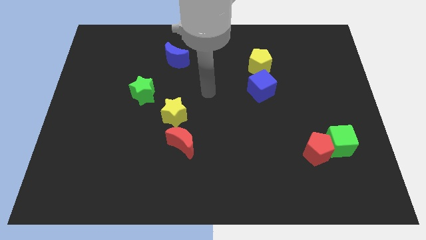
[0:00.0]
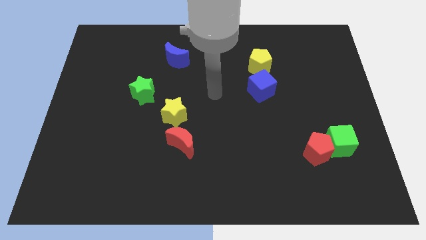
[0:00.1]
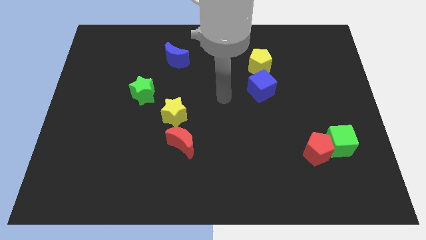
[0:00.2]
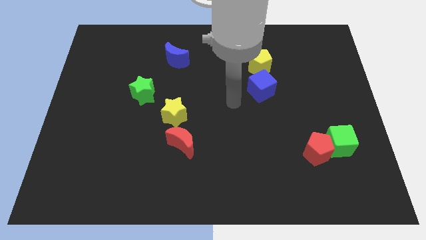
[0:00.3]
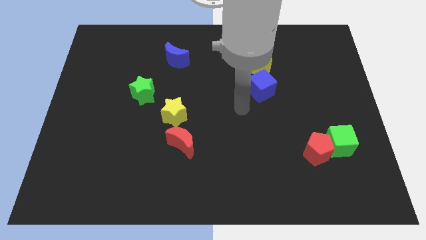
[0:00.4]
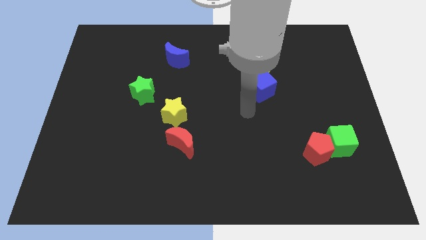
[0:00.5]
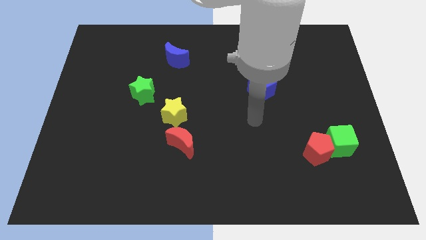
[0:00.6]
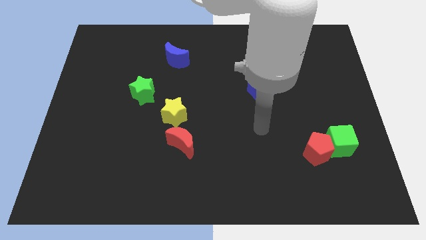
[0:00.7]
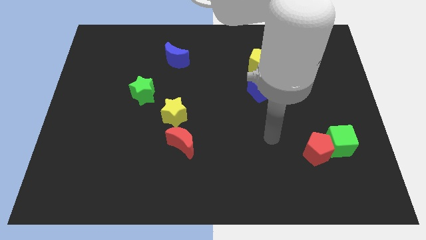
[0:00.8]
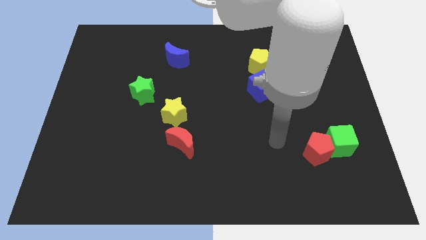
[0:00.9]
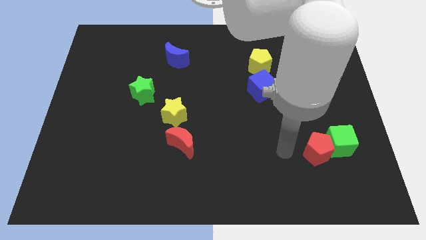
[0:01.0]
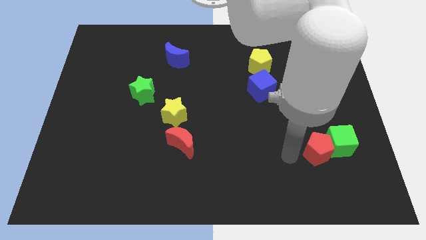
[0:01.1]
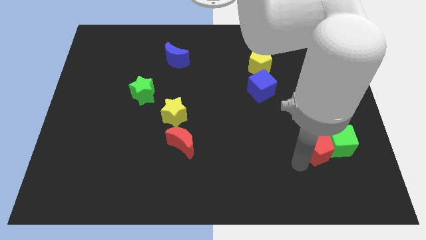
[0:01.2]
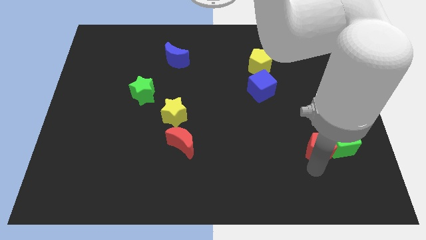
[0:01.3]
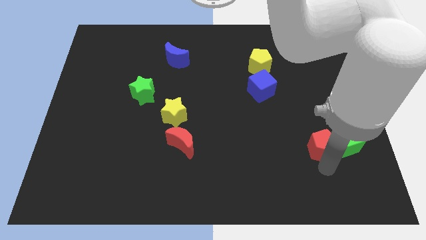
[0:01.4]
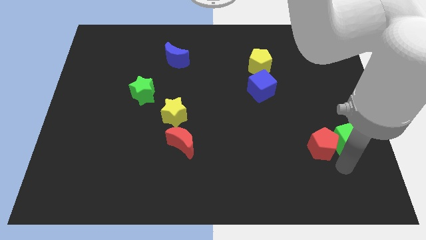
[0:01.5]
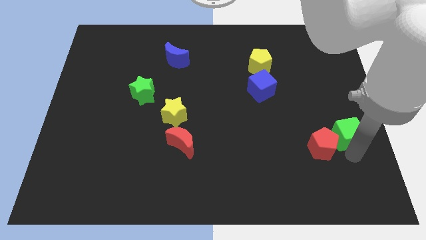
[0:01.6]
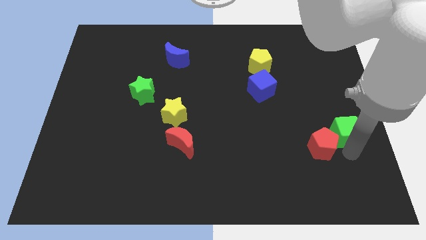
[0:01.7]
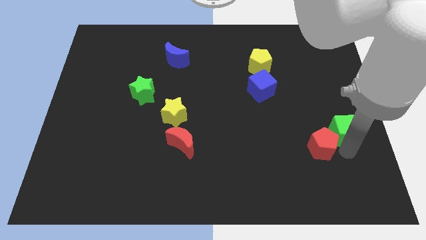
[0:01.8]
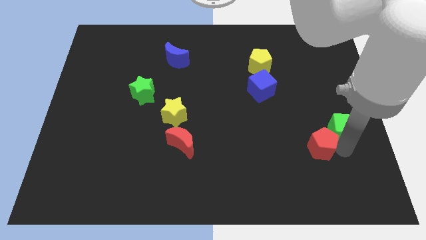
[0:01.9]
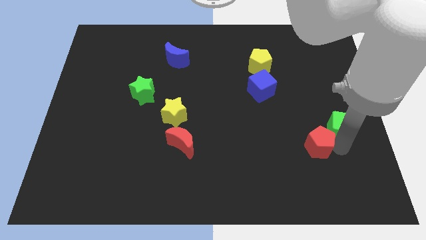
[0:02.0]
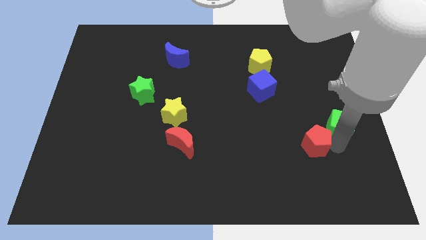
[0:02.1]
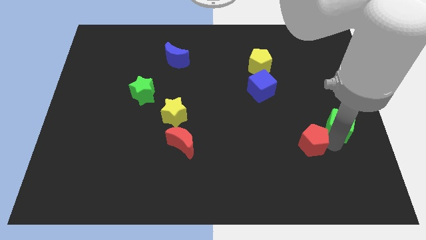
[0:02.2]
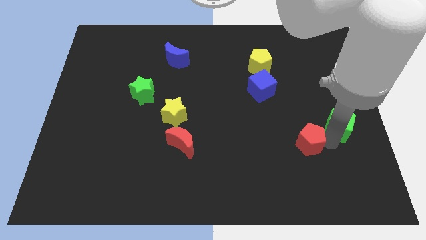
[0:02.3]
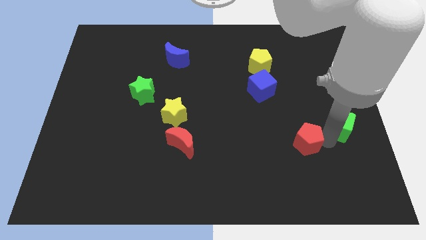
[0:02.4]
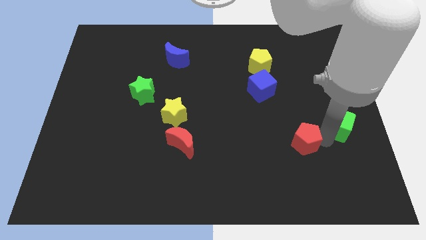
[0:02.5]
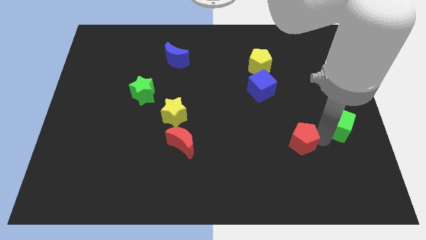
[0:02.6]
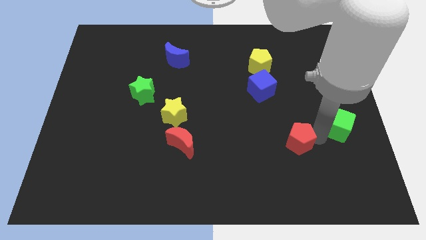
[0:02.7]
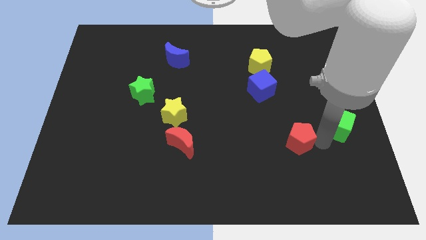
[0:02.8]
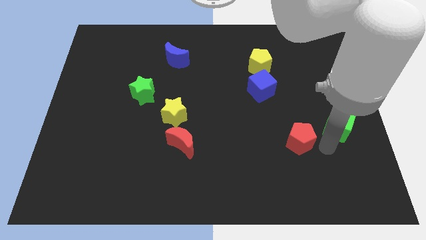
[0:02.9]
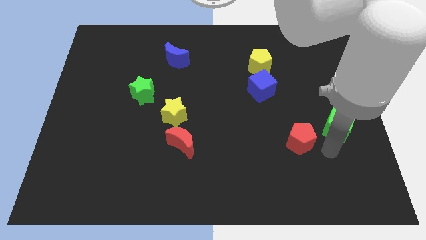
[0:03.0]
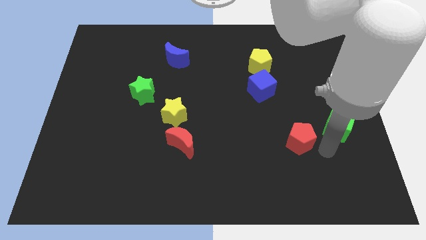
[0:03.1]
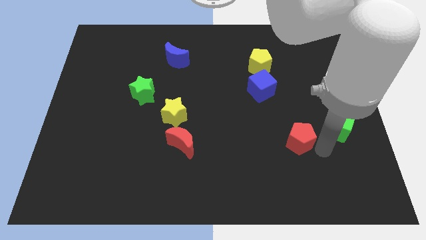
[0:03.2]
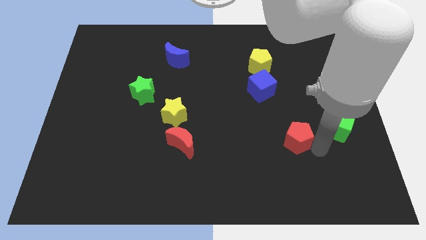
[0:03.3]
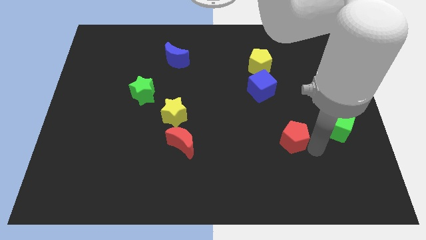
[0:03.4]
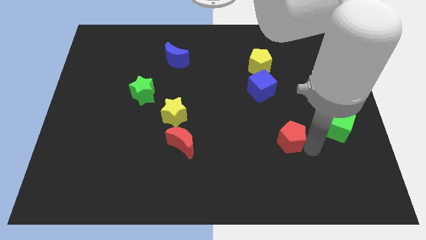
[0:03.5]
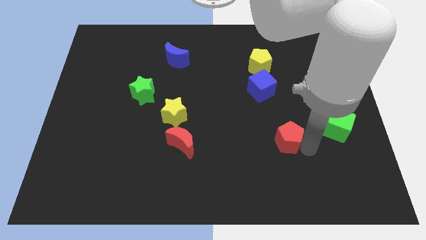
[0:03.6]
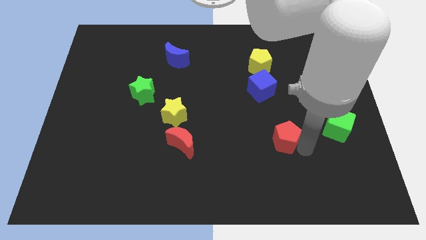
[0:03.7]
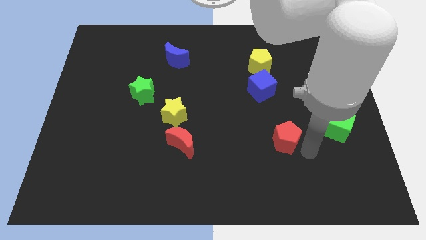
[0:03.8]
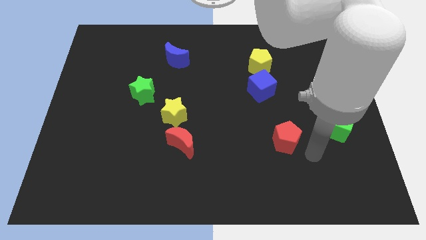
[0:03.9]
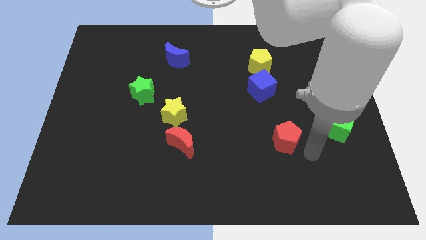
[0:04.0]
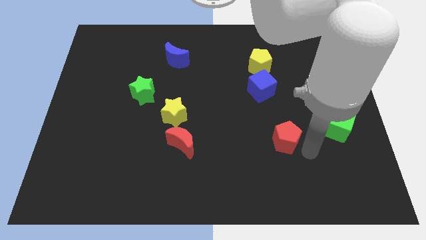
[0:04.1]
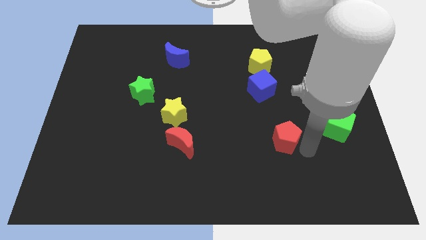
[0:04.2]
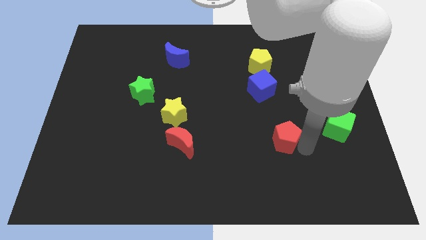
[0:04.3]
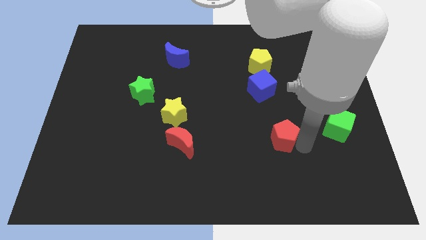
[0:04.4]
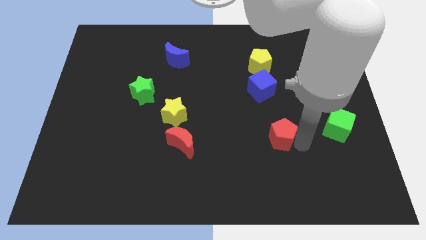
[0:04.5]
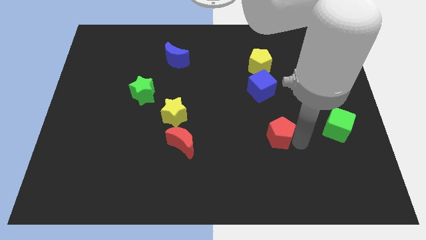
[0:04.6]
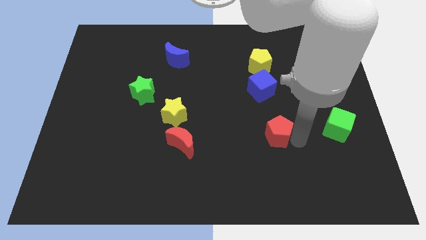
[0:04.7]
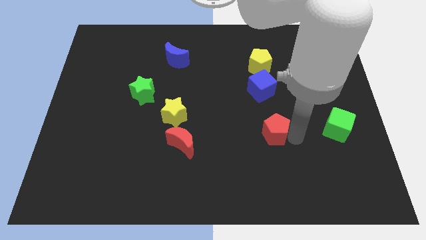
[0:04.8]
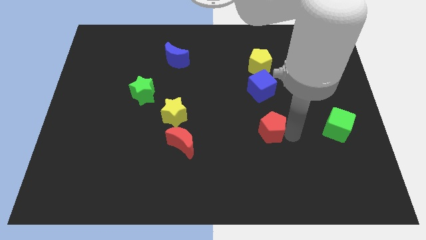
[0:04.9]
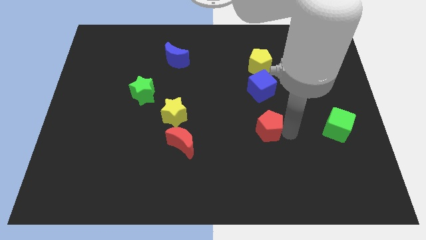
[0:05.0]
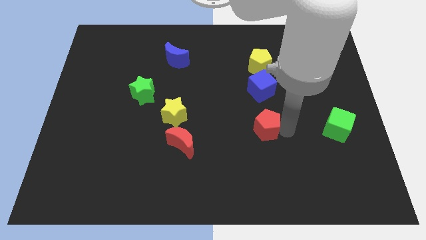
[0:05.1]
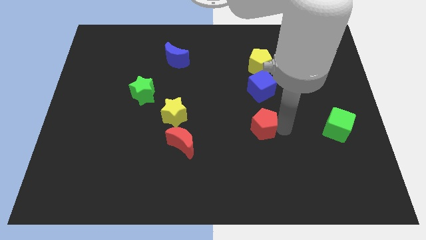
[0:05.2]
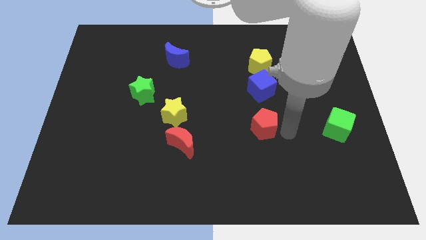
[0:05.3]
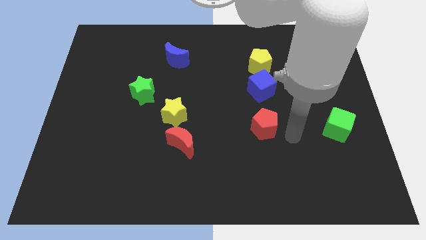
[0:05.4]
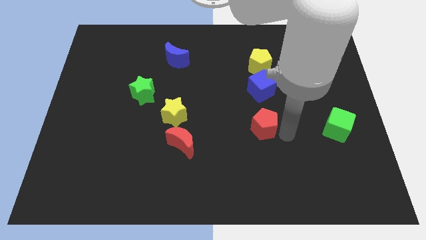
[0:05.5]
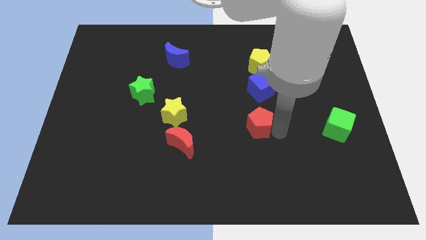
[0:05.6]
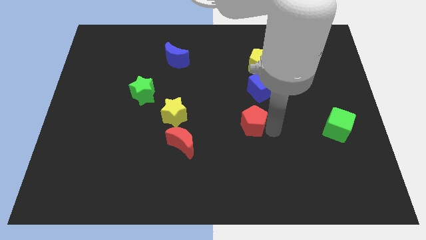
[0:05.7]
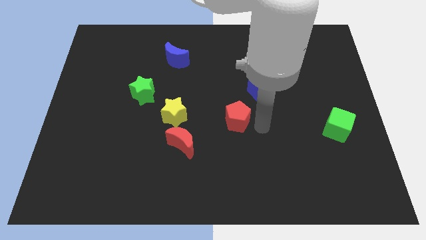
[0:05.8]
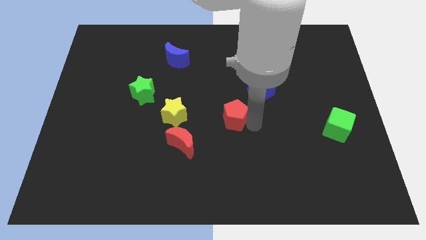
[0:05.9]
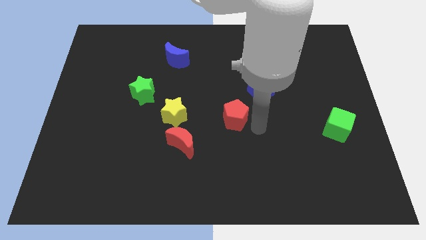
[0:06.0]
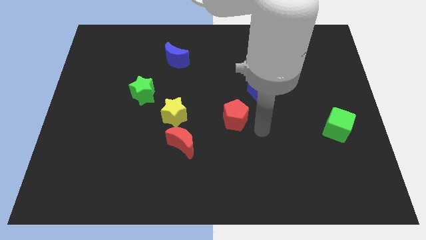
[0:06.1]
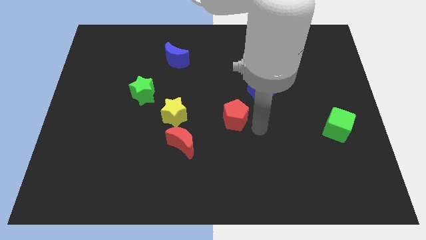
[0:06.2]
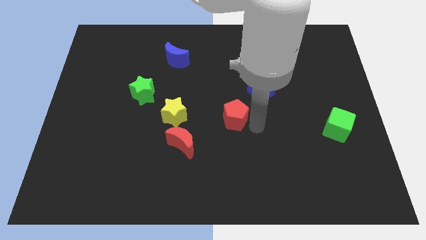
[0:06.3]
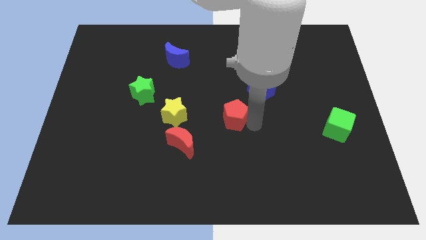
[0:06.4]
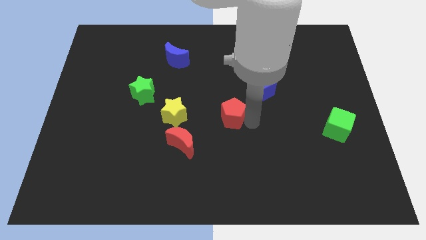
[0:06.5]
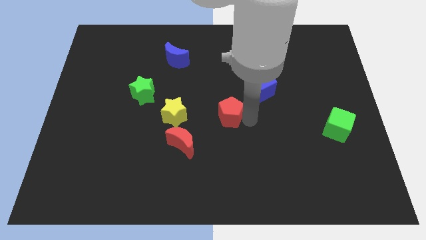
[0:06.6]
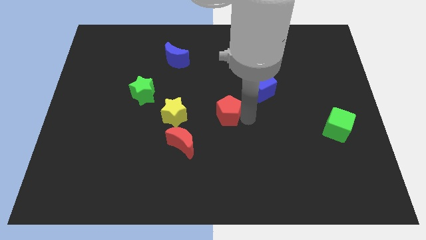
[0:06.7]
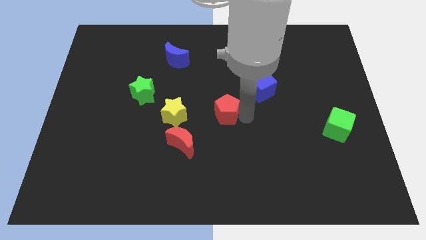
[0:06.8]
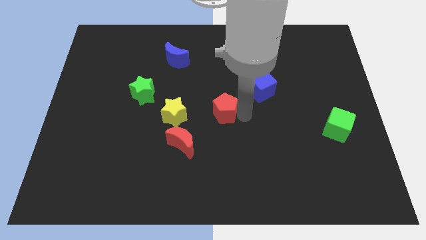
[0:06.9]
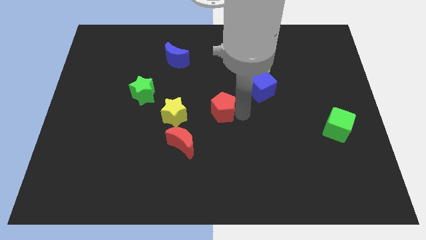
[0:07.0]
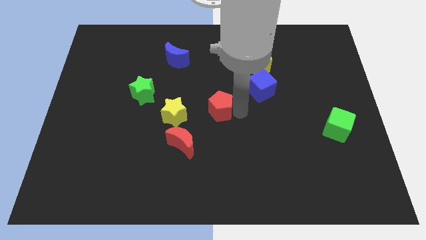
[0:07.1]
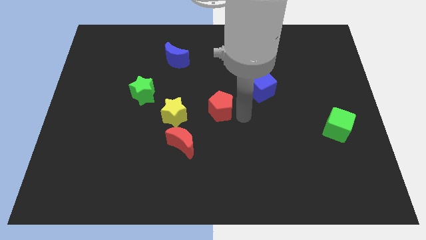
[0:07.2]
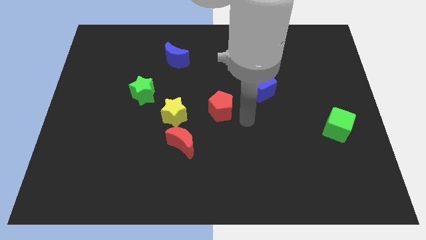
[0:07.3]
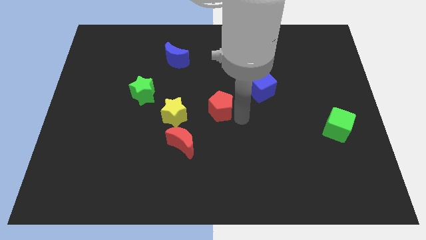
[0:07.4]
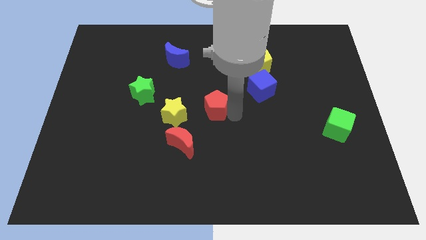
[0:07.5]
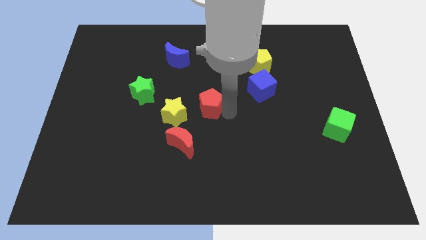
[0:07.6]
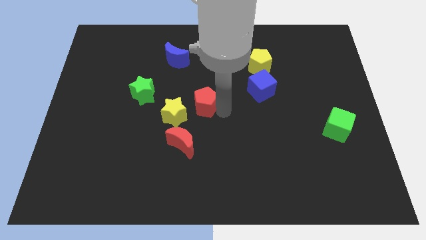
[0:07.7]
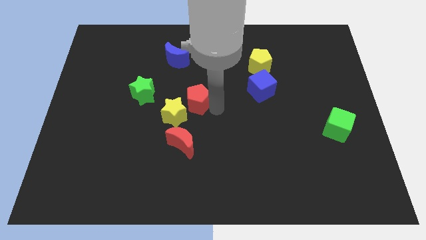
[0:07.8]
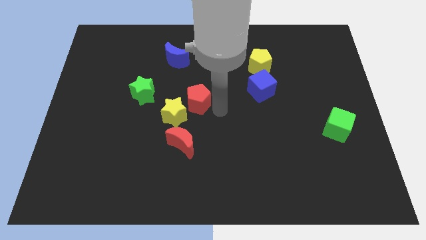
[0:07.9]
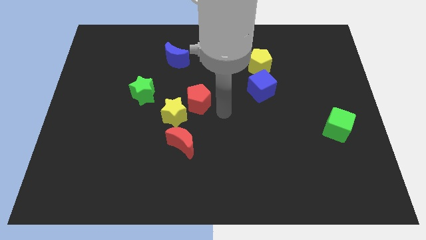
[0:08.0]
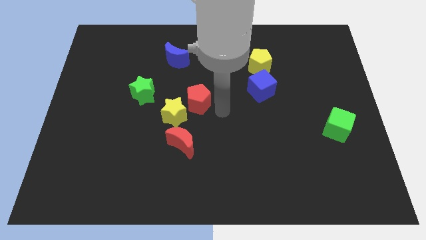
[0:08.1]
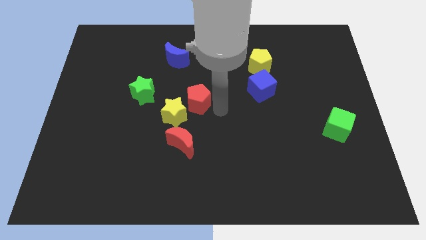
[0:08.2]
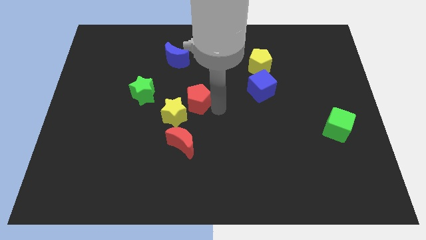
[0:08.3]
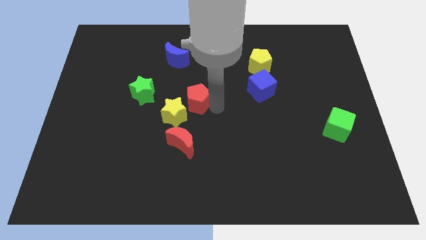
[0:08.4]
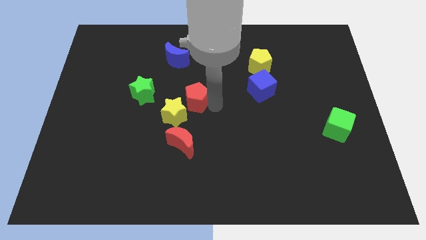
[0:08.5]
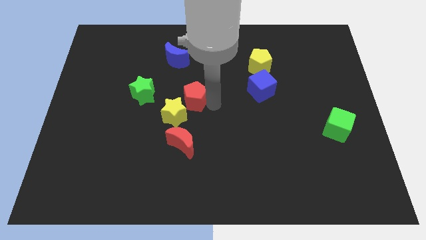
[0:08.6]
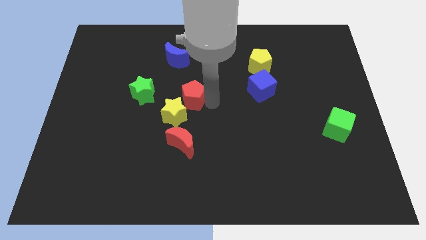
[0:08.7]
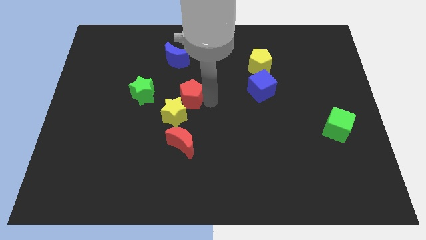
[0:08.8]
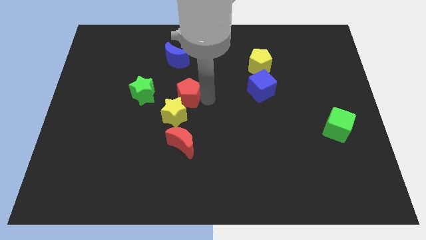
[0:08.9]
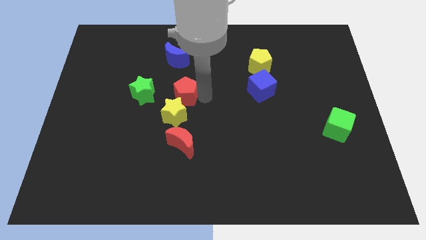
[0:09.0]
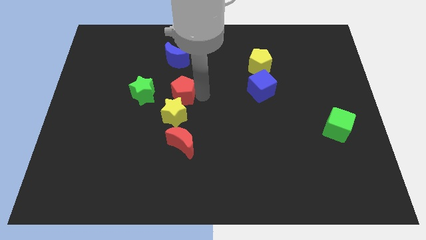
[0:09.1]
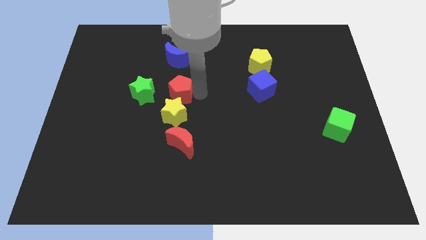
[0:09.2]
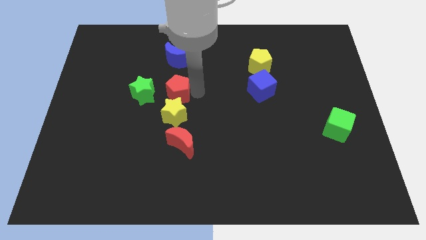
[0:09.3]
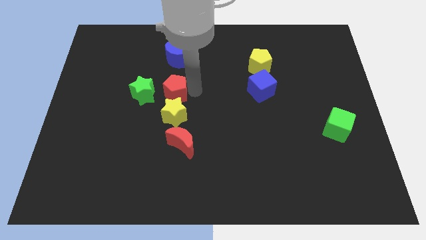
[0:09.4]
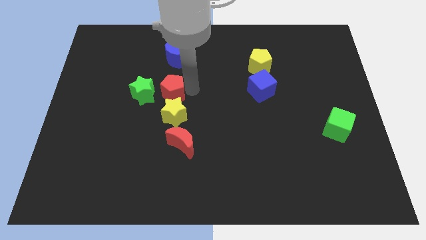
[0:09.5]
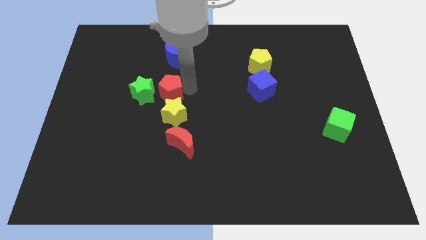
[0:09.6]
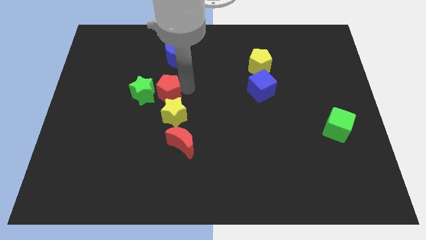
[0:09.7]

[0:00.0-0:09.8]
put the red pentagon to the green star
